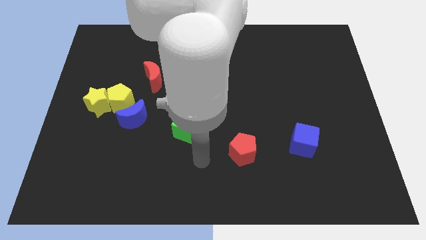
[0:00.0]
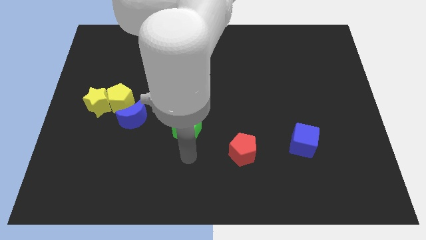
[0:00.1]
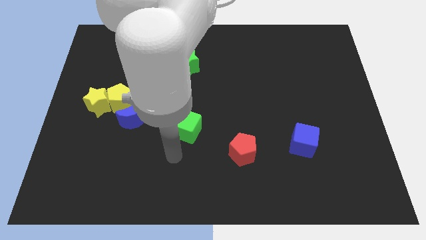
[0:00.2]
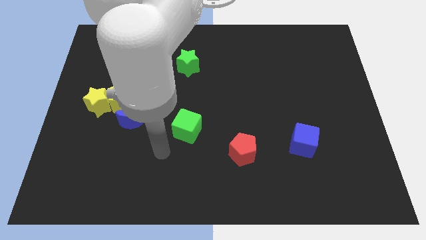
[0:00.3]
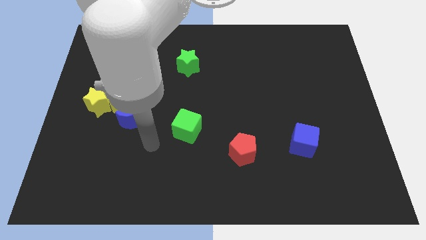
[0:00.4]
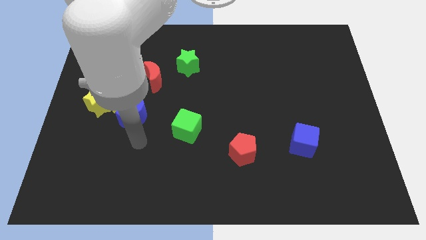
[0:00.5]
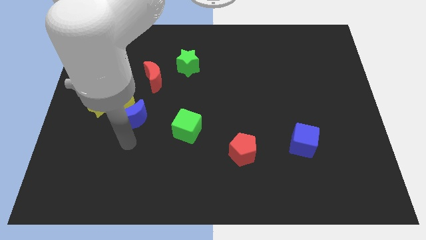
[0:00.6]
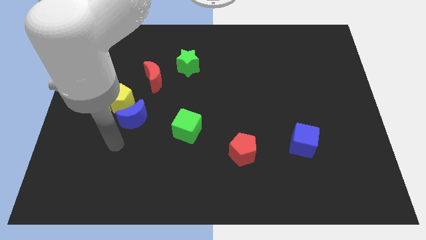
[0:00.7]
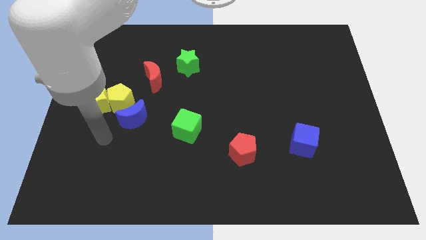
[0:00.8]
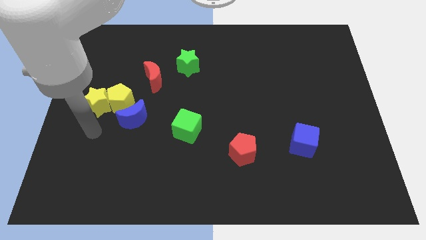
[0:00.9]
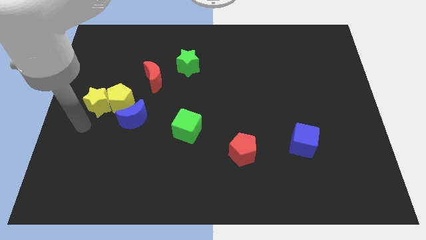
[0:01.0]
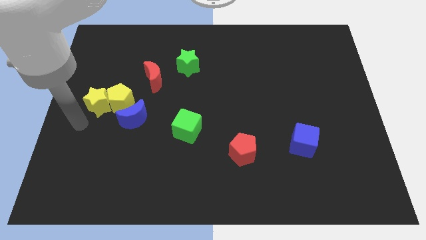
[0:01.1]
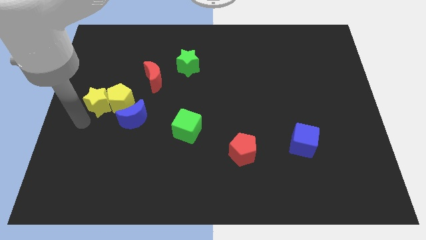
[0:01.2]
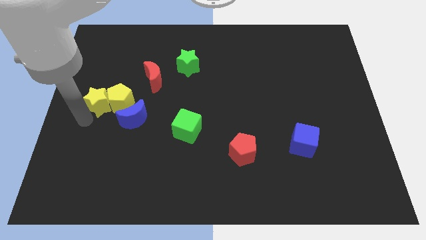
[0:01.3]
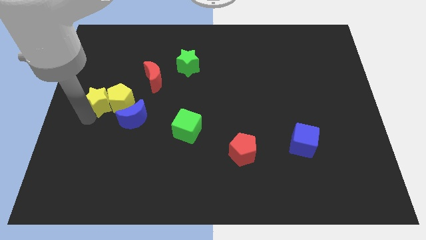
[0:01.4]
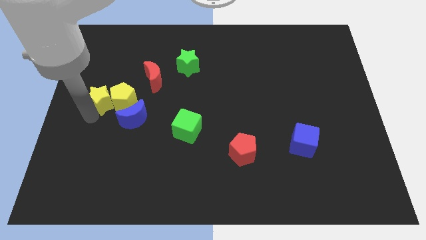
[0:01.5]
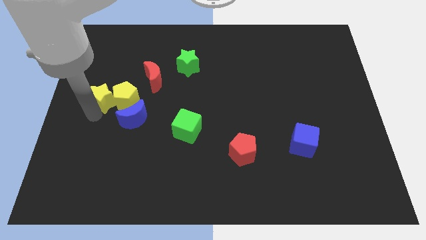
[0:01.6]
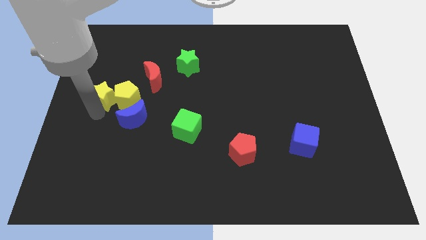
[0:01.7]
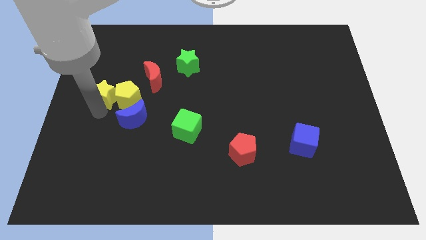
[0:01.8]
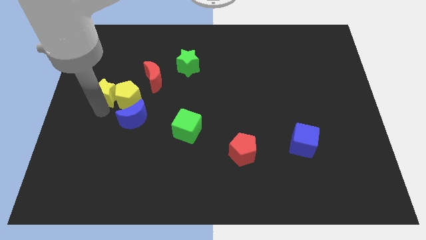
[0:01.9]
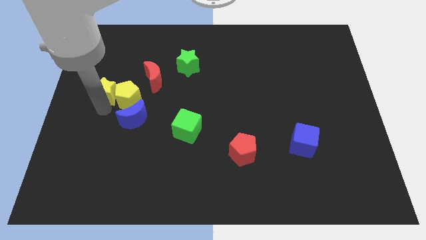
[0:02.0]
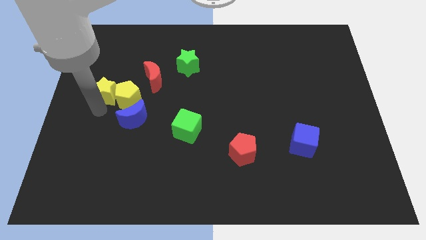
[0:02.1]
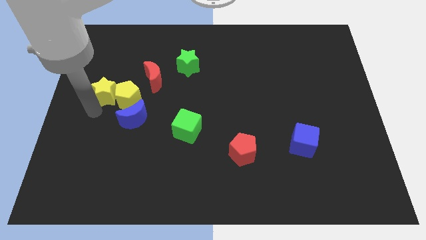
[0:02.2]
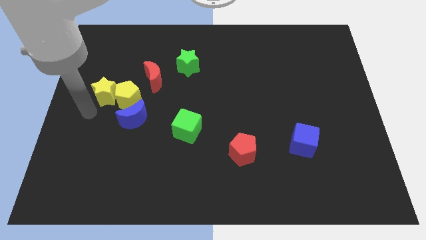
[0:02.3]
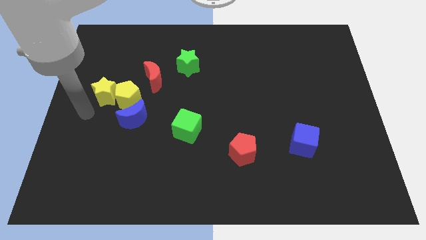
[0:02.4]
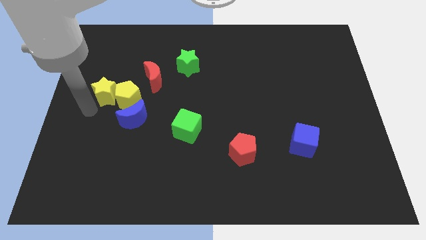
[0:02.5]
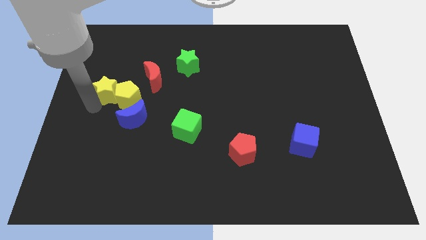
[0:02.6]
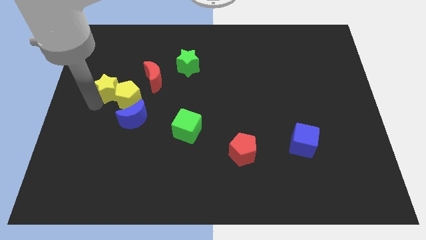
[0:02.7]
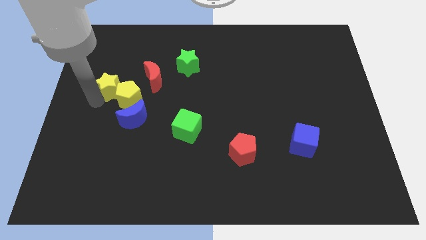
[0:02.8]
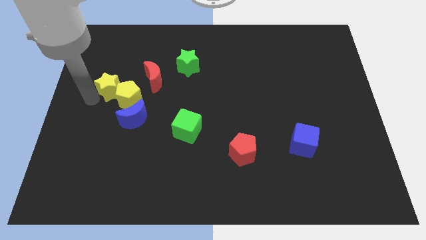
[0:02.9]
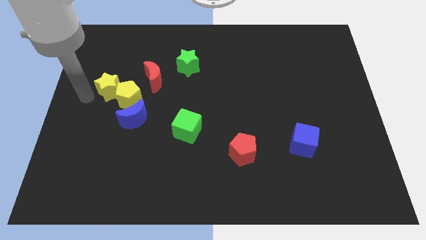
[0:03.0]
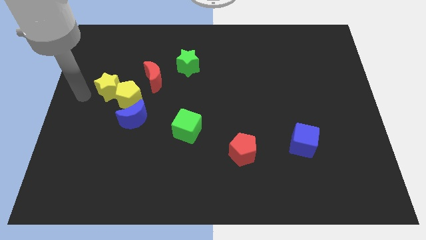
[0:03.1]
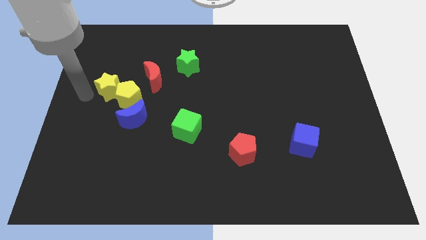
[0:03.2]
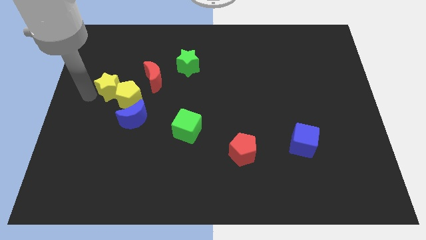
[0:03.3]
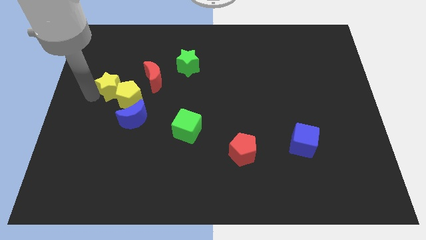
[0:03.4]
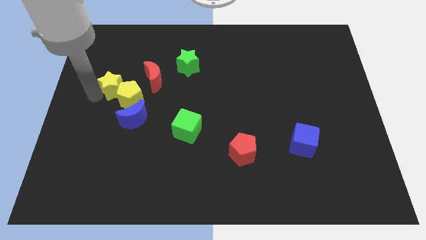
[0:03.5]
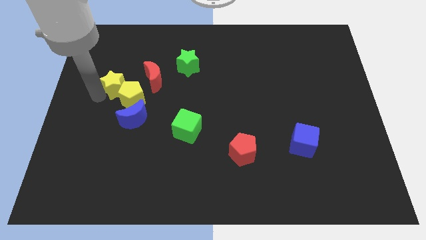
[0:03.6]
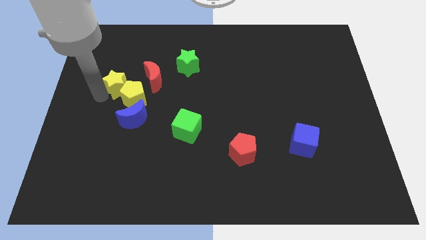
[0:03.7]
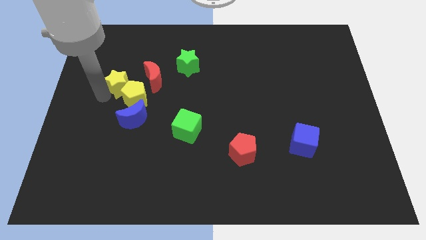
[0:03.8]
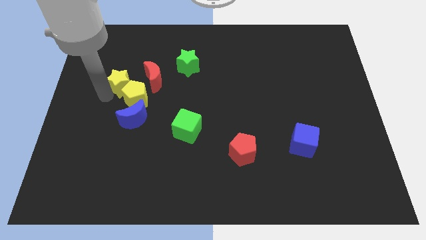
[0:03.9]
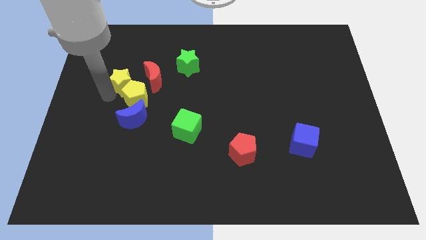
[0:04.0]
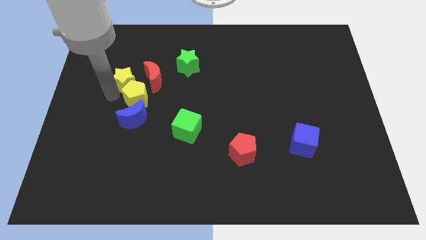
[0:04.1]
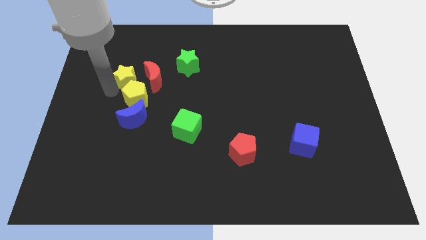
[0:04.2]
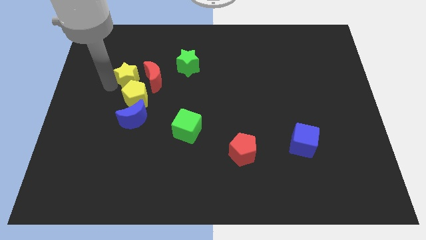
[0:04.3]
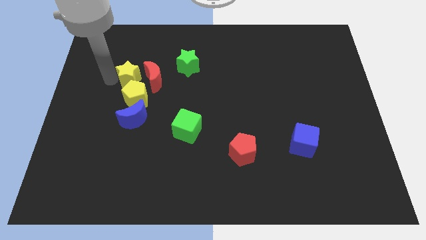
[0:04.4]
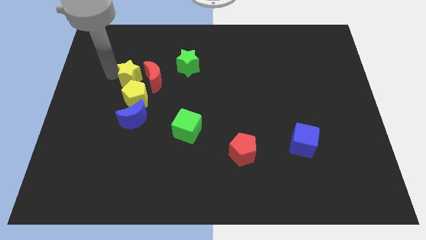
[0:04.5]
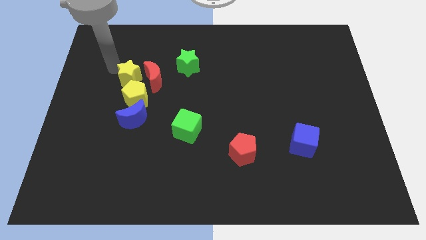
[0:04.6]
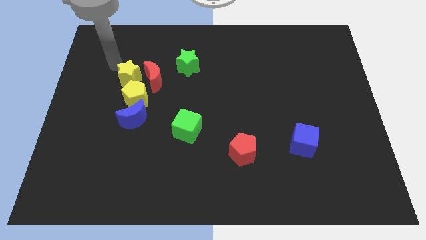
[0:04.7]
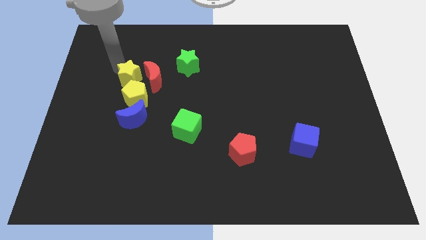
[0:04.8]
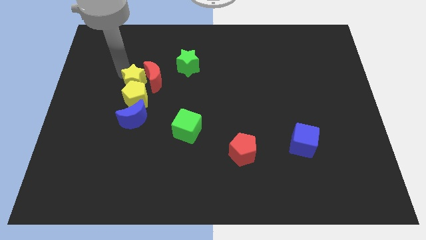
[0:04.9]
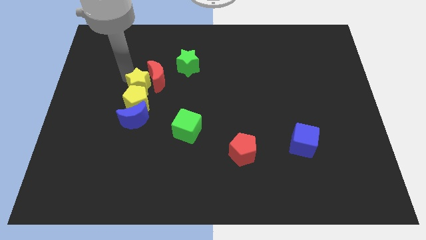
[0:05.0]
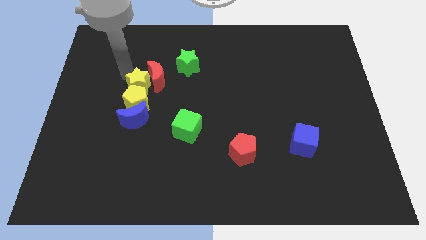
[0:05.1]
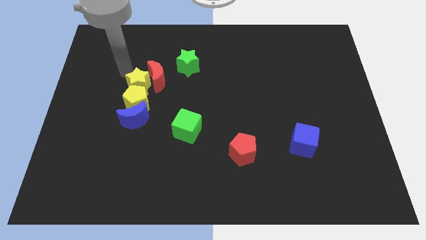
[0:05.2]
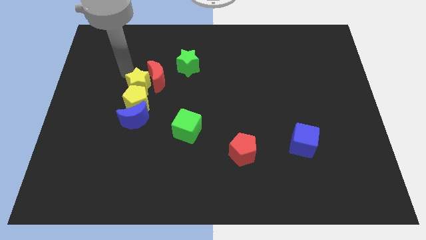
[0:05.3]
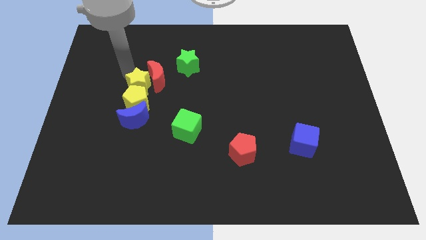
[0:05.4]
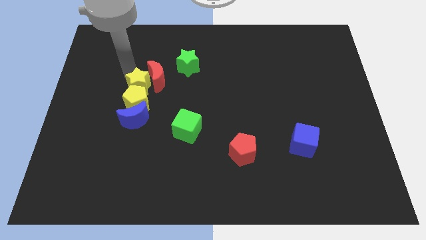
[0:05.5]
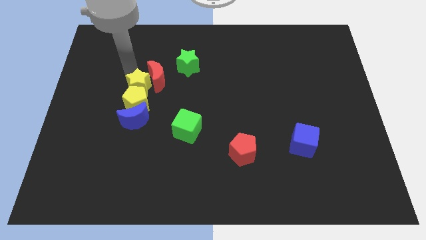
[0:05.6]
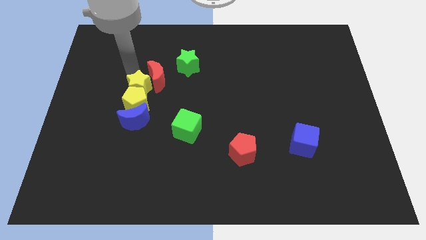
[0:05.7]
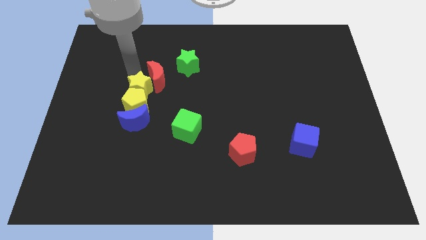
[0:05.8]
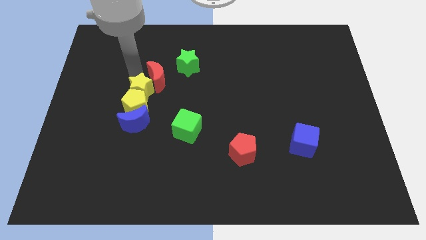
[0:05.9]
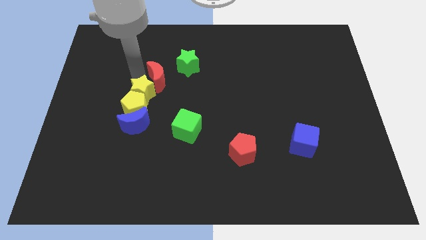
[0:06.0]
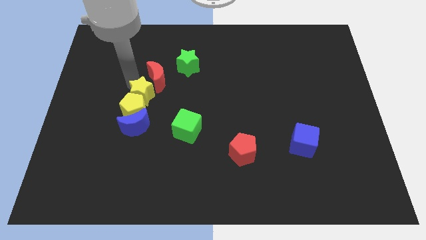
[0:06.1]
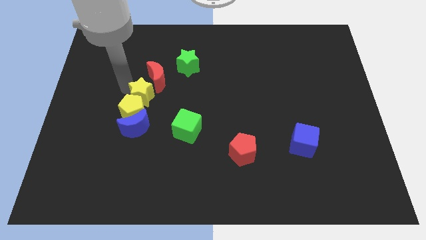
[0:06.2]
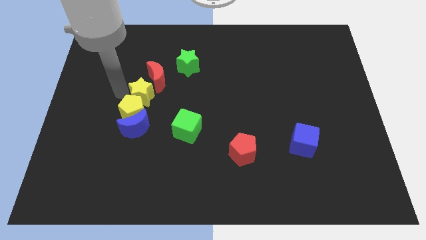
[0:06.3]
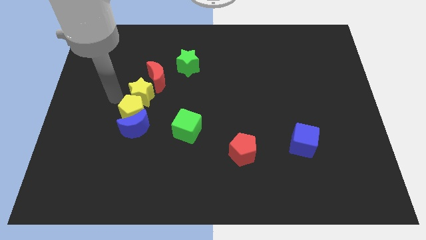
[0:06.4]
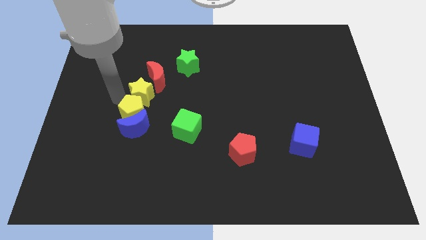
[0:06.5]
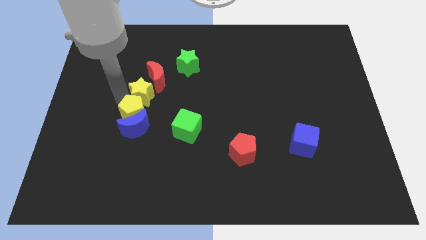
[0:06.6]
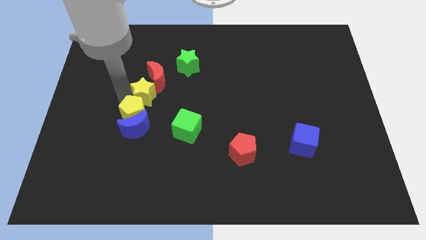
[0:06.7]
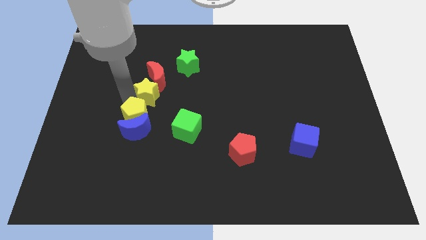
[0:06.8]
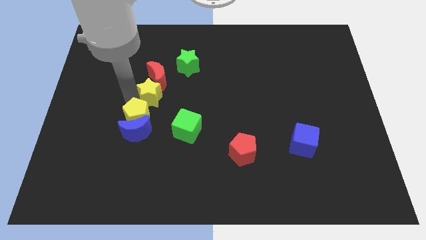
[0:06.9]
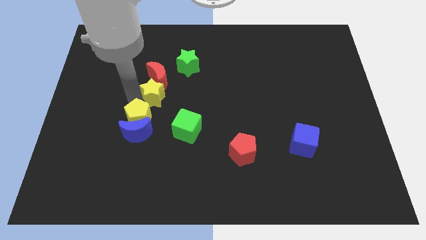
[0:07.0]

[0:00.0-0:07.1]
put the yellow star to the bottom right side of the red moon
